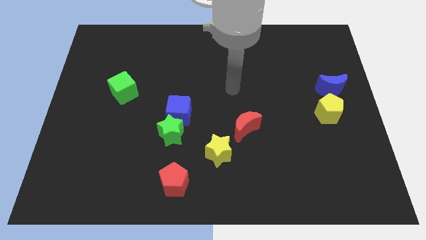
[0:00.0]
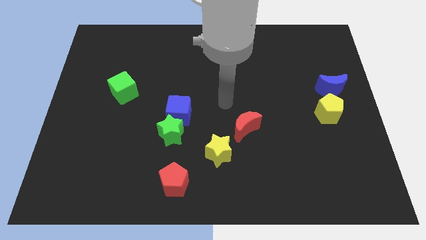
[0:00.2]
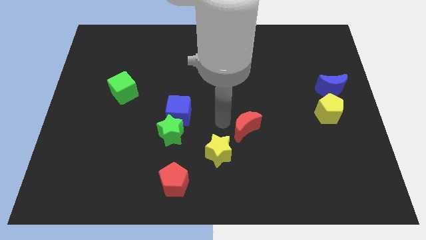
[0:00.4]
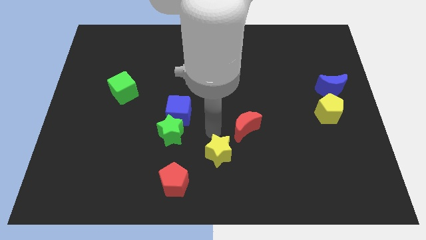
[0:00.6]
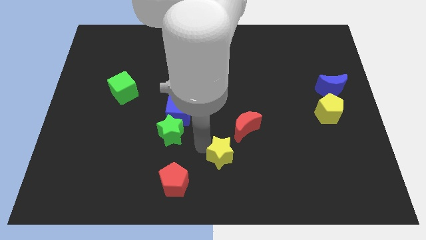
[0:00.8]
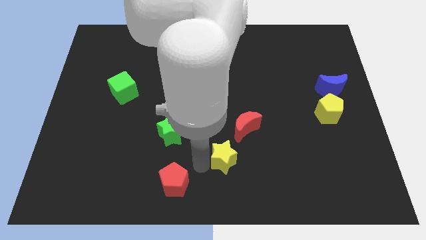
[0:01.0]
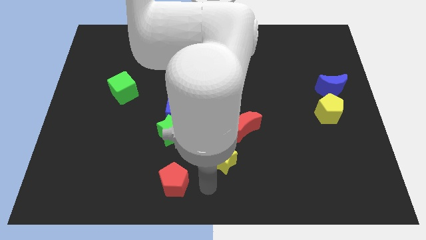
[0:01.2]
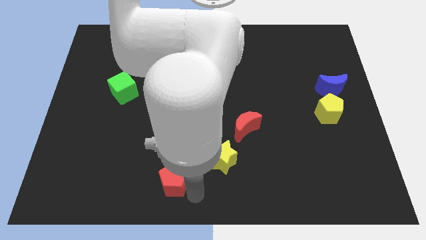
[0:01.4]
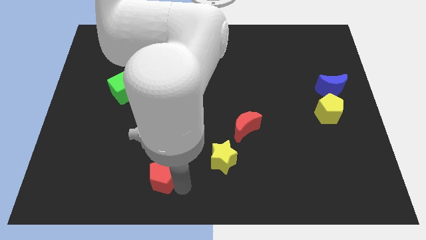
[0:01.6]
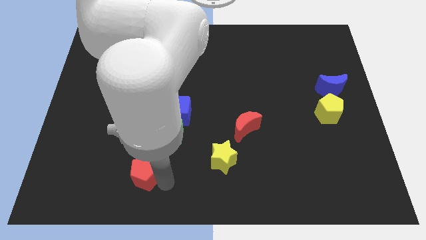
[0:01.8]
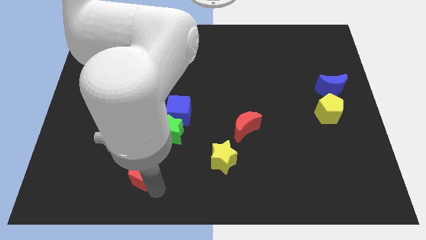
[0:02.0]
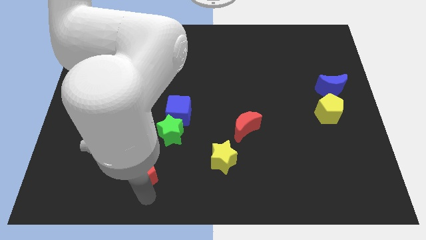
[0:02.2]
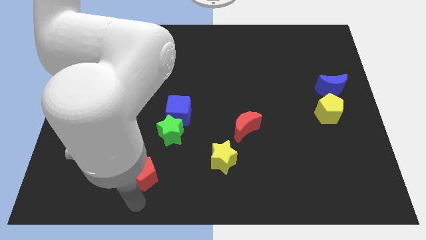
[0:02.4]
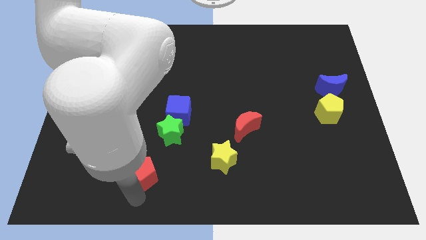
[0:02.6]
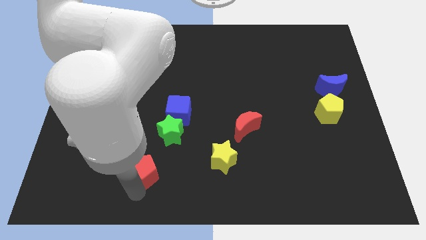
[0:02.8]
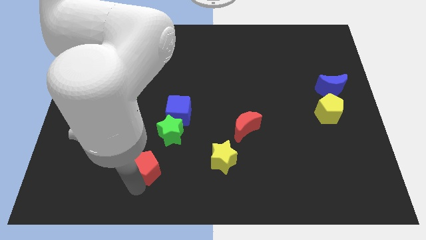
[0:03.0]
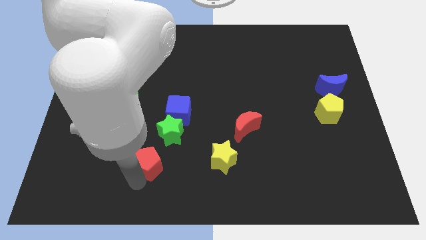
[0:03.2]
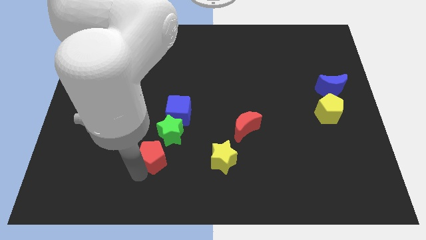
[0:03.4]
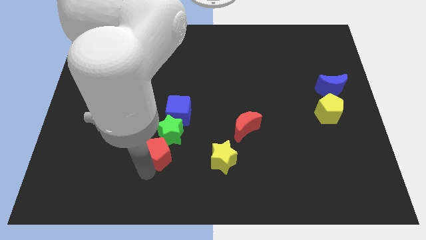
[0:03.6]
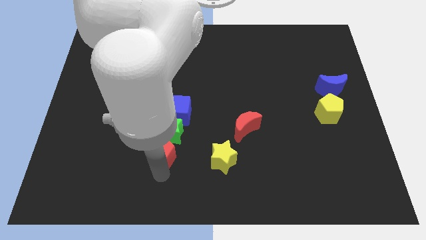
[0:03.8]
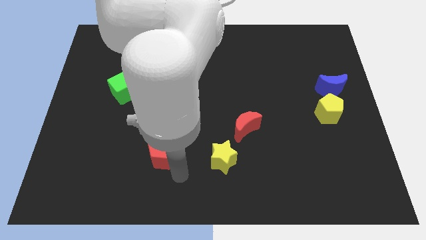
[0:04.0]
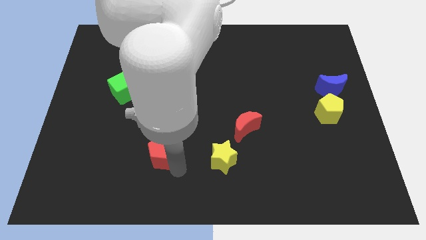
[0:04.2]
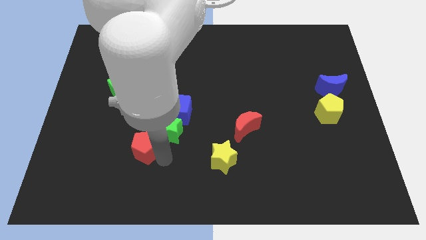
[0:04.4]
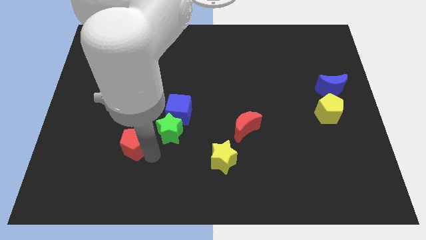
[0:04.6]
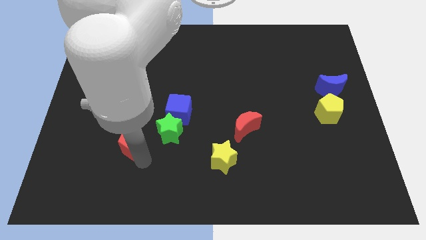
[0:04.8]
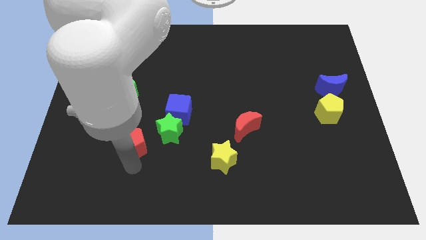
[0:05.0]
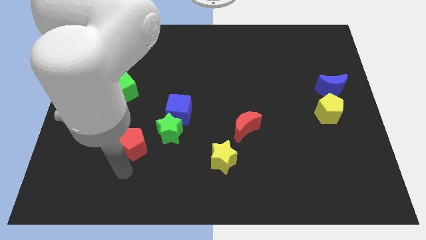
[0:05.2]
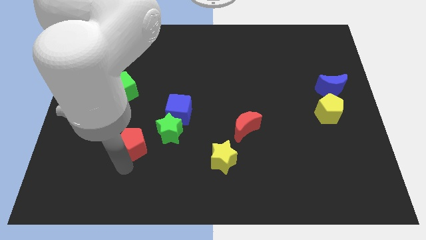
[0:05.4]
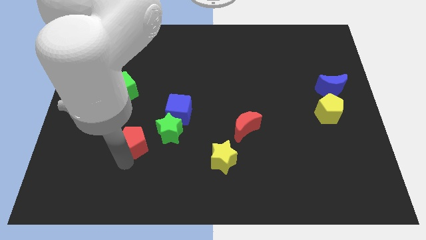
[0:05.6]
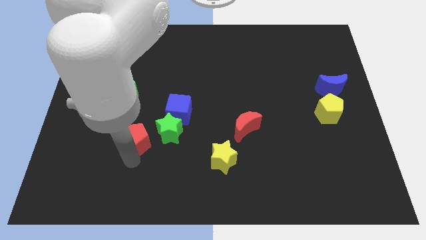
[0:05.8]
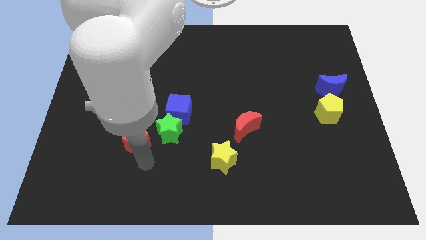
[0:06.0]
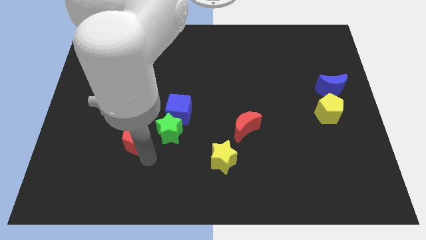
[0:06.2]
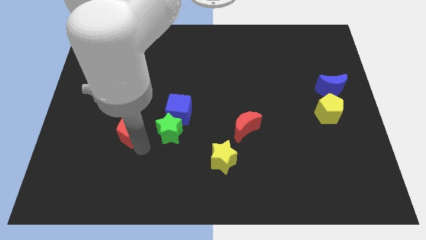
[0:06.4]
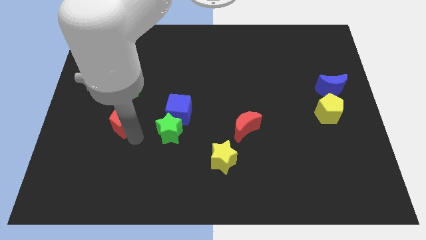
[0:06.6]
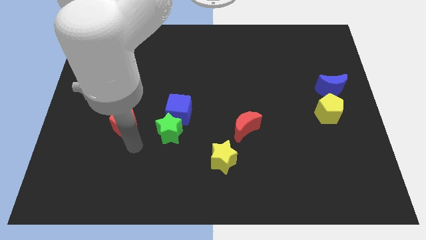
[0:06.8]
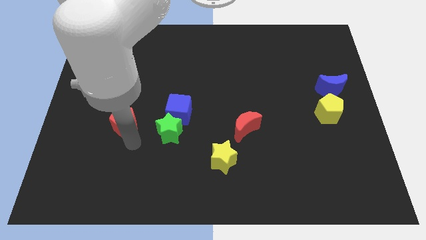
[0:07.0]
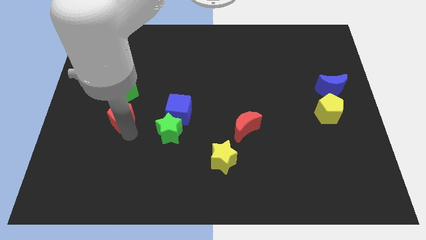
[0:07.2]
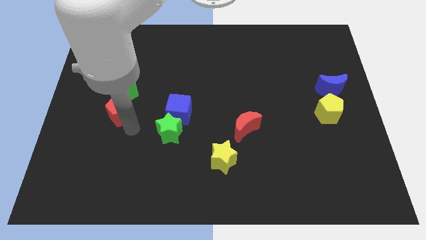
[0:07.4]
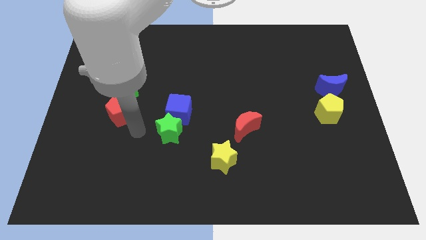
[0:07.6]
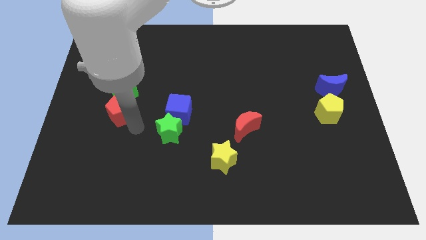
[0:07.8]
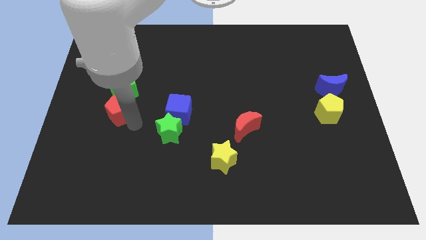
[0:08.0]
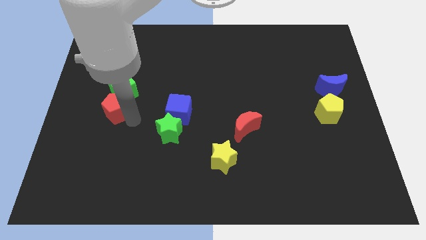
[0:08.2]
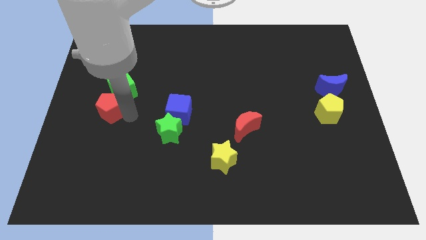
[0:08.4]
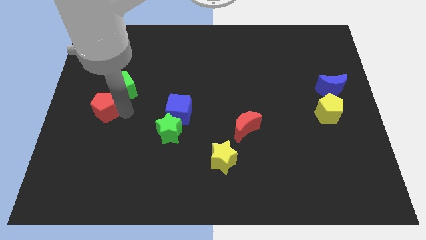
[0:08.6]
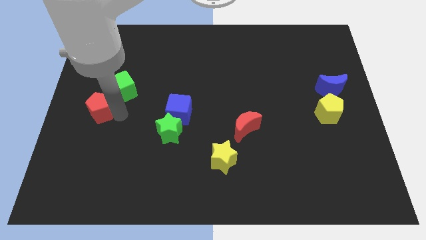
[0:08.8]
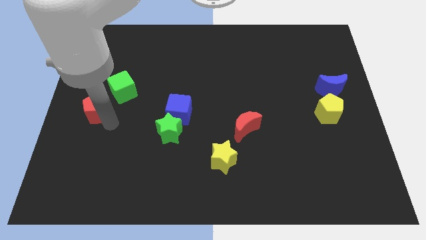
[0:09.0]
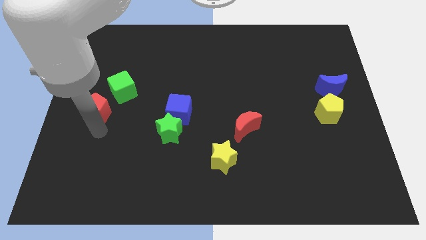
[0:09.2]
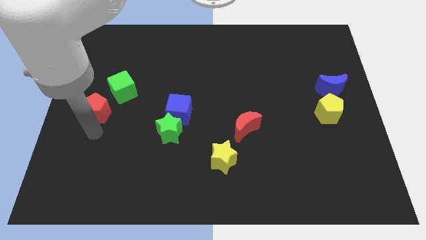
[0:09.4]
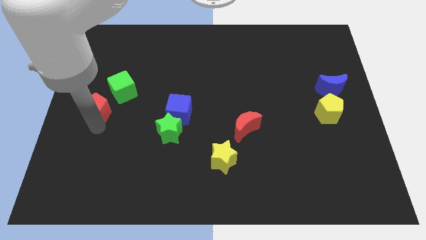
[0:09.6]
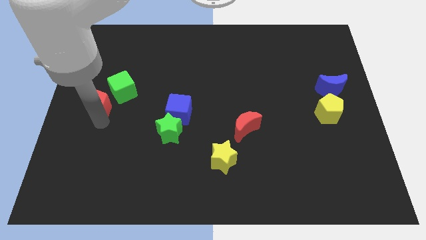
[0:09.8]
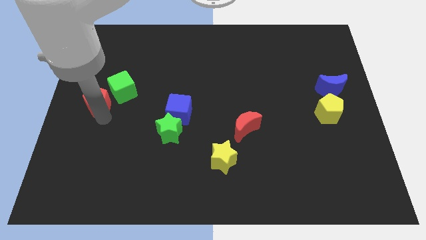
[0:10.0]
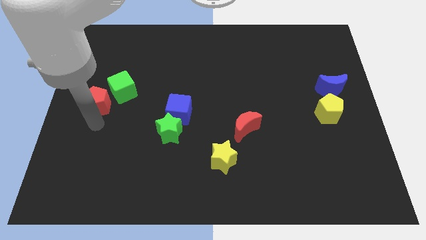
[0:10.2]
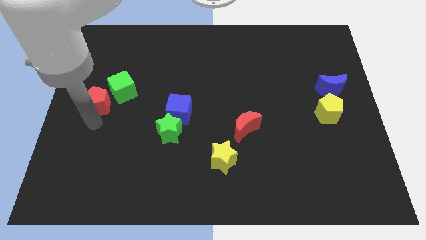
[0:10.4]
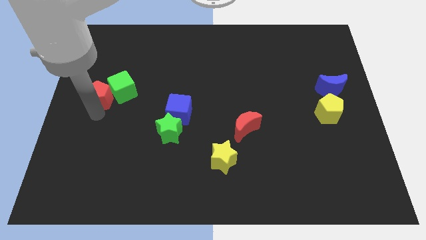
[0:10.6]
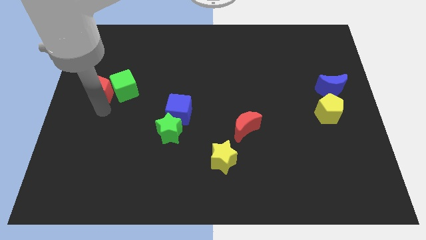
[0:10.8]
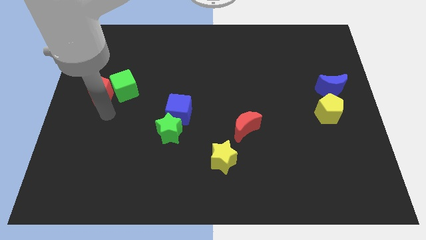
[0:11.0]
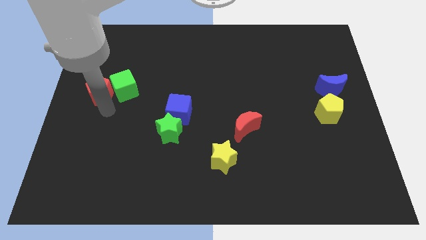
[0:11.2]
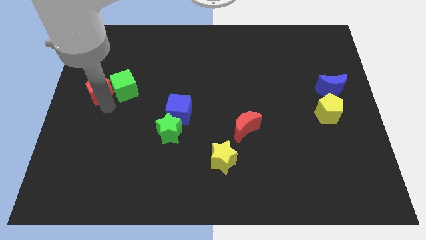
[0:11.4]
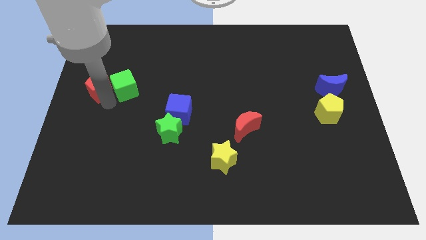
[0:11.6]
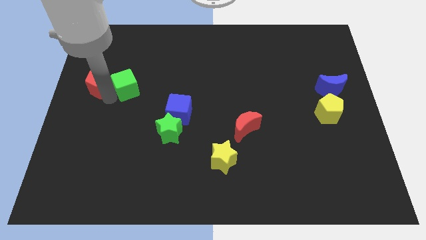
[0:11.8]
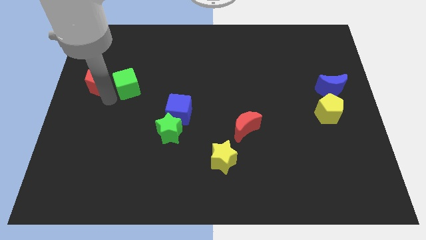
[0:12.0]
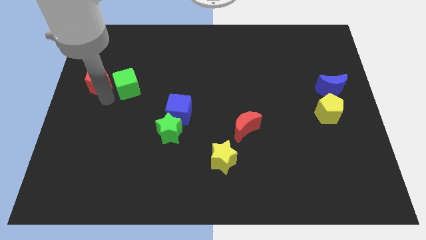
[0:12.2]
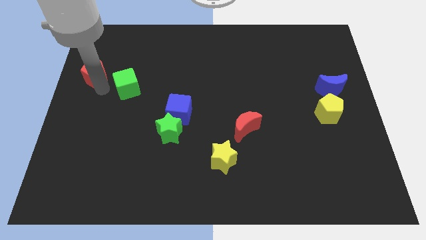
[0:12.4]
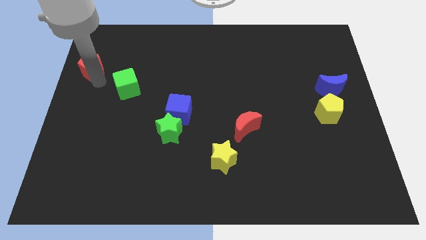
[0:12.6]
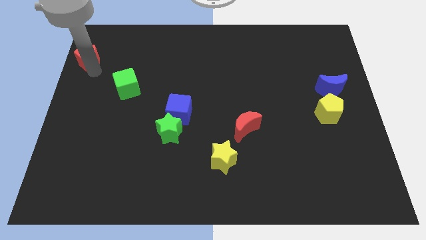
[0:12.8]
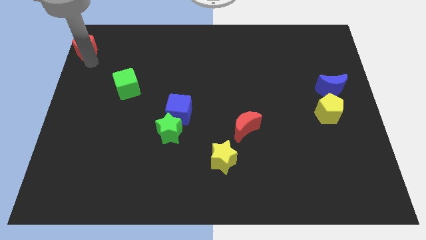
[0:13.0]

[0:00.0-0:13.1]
put the red pentagon to the top left corner

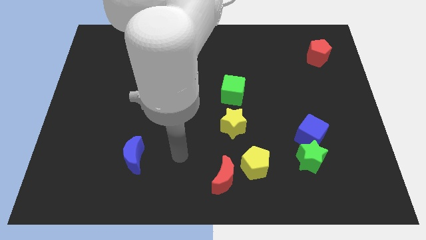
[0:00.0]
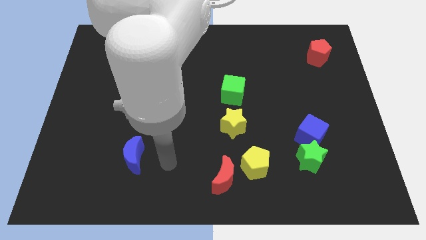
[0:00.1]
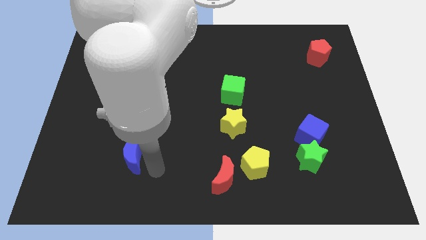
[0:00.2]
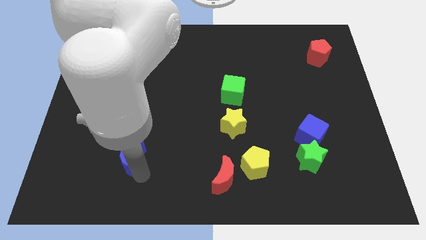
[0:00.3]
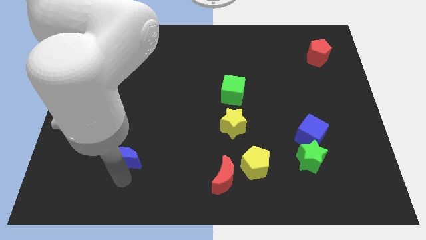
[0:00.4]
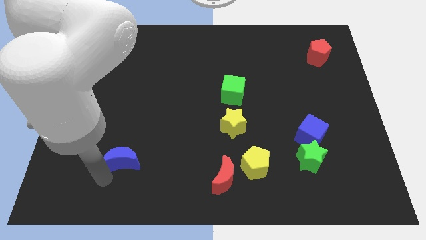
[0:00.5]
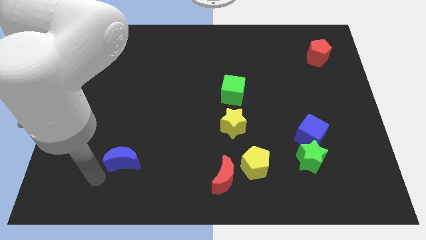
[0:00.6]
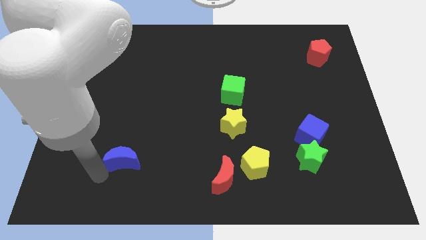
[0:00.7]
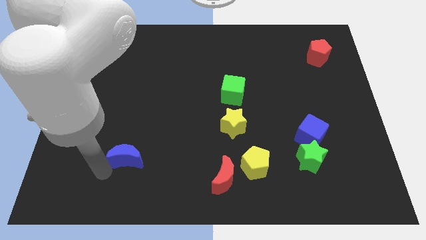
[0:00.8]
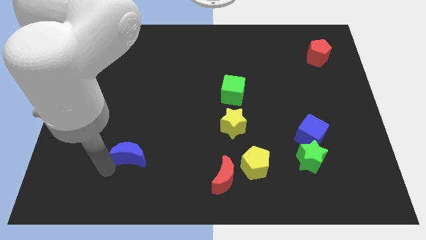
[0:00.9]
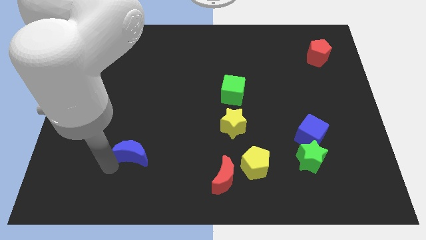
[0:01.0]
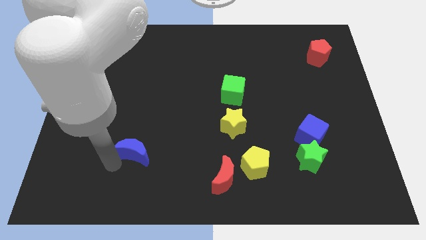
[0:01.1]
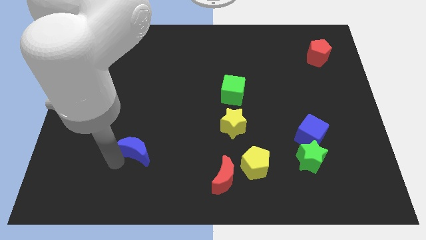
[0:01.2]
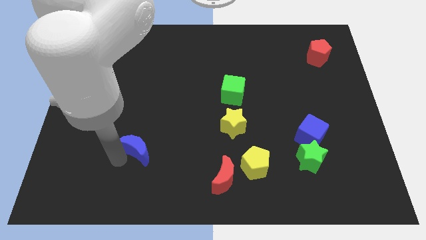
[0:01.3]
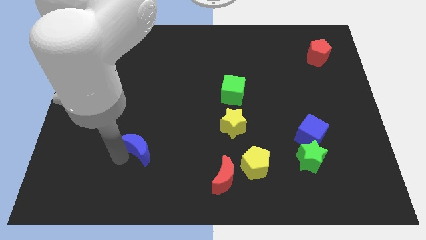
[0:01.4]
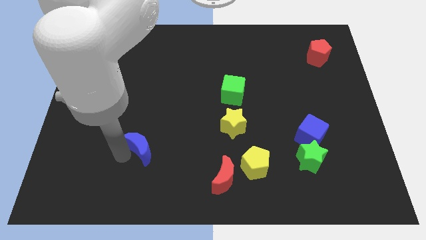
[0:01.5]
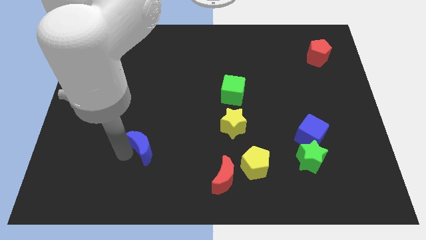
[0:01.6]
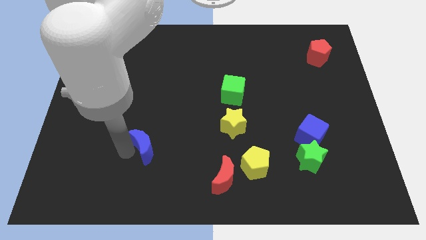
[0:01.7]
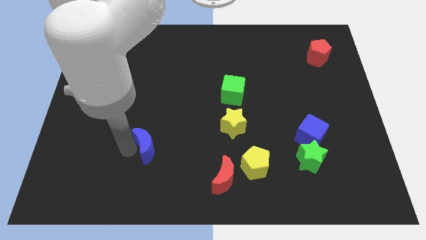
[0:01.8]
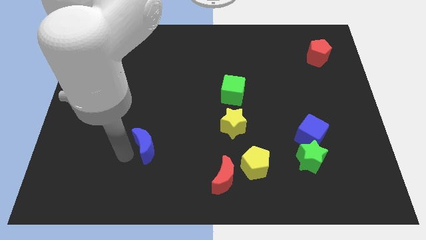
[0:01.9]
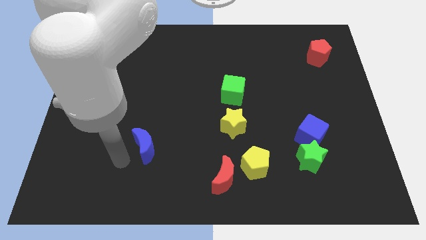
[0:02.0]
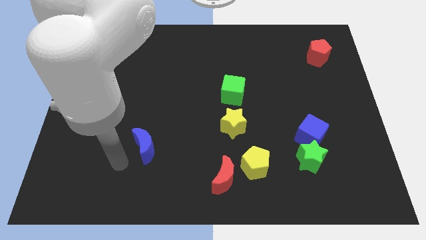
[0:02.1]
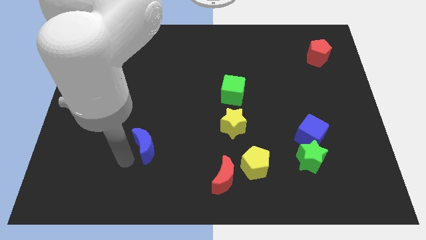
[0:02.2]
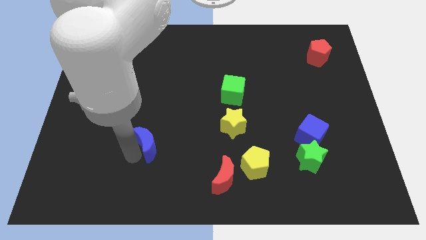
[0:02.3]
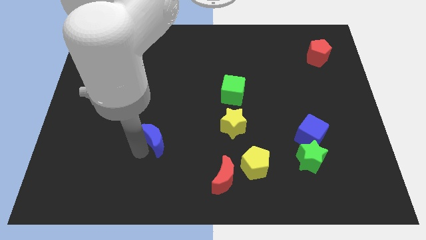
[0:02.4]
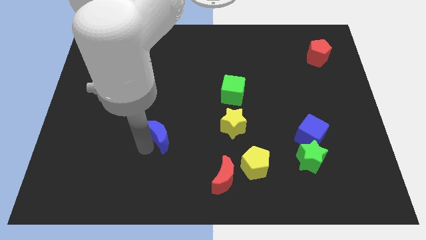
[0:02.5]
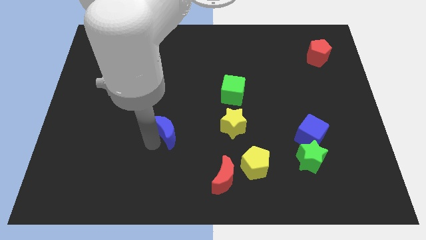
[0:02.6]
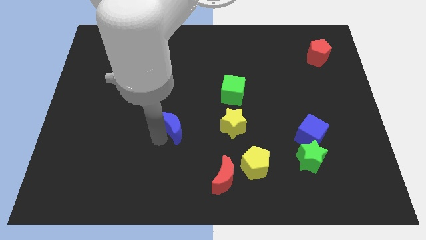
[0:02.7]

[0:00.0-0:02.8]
move the blue moon to the center of the board
